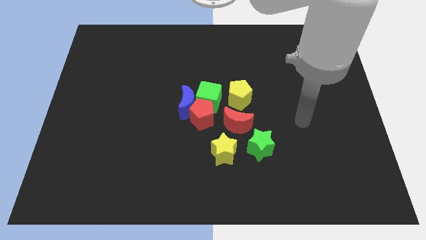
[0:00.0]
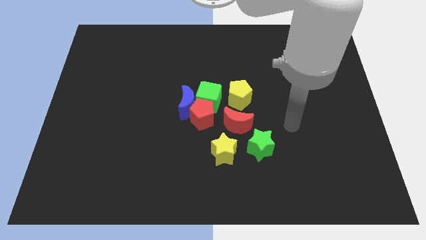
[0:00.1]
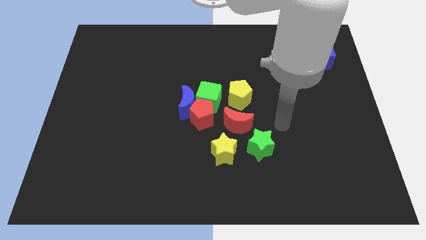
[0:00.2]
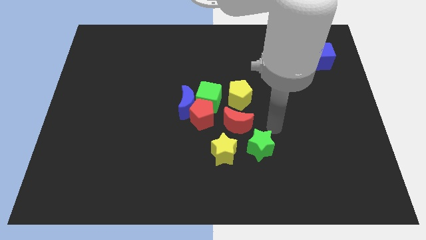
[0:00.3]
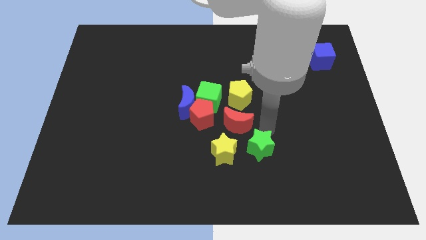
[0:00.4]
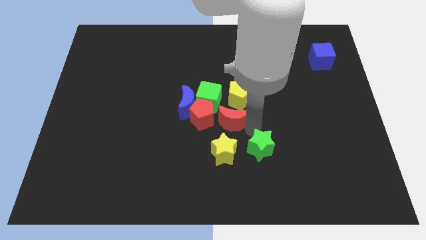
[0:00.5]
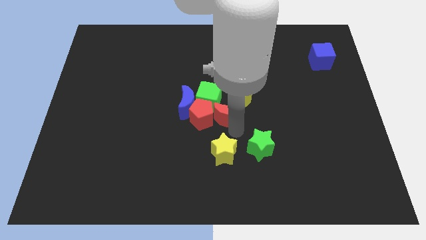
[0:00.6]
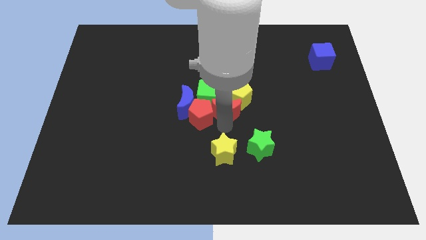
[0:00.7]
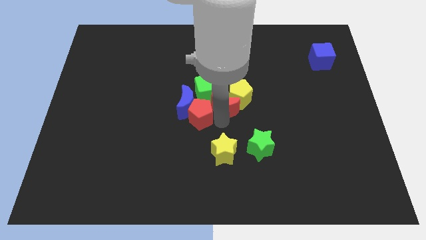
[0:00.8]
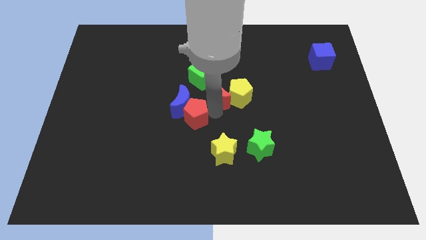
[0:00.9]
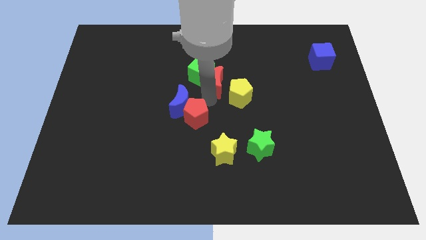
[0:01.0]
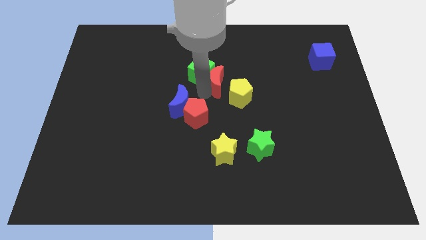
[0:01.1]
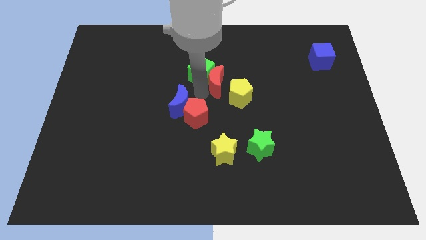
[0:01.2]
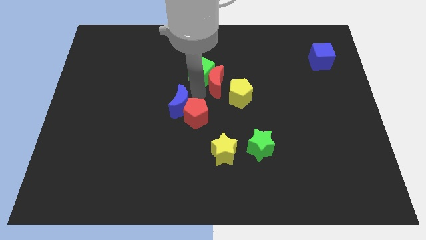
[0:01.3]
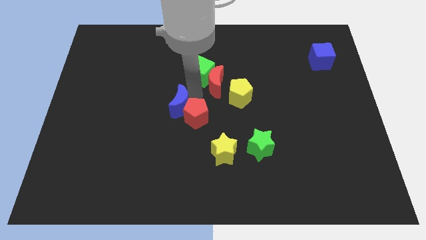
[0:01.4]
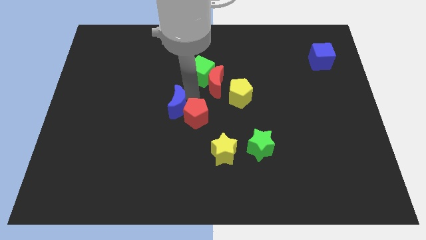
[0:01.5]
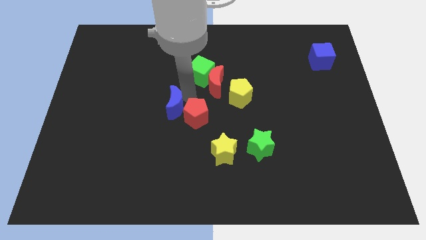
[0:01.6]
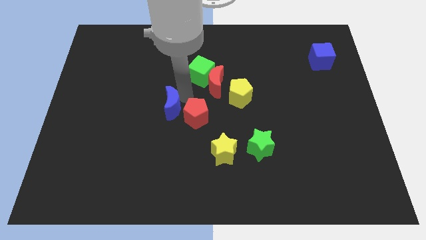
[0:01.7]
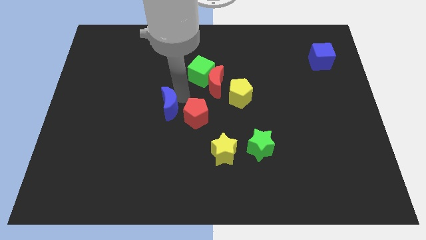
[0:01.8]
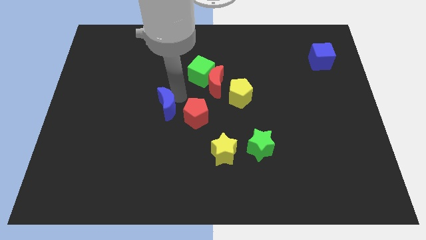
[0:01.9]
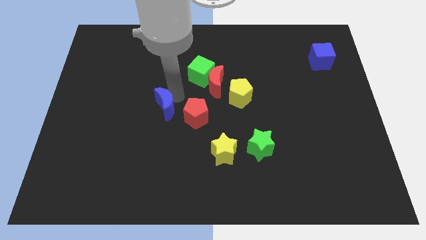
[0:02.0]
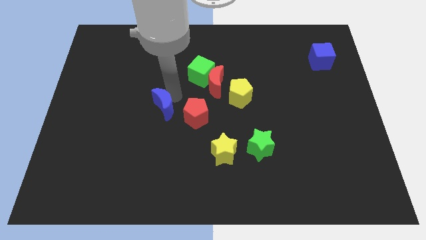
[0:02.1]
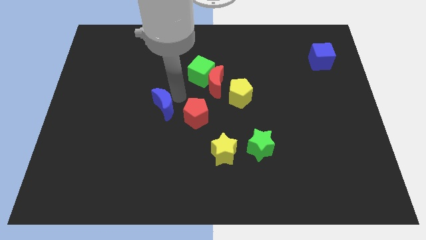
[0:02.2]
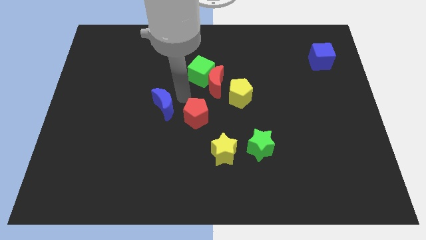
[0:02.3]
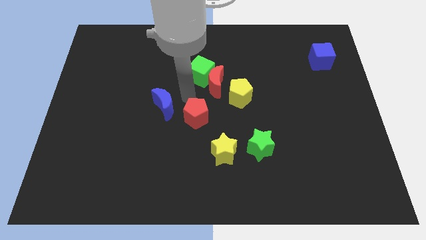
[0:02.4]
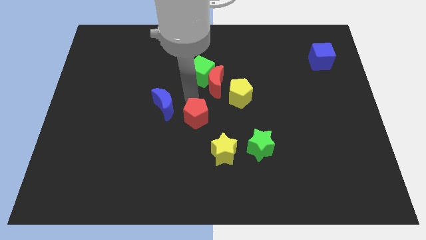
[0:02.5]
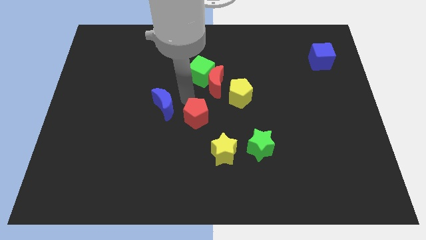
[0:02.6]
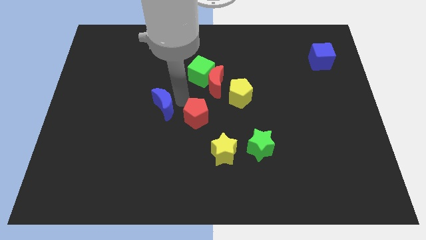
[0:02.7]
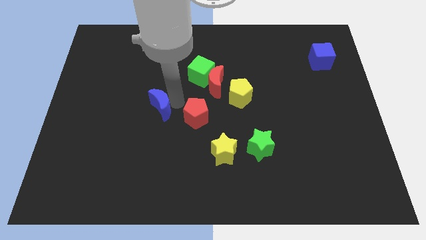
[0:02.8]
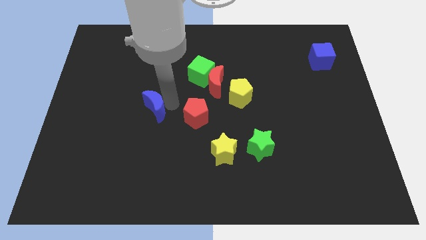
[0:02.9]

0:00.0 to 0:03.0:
separate the blue moon from the red pentagon and green cube

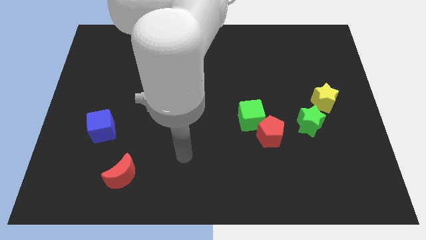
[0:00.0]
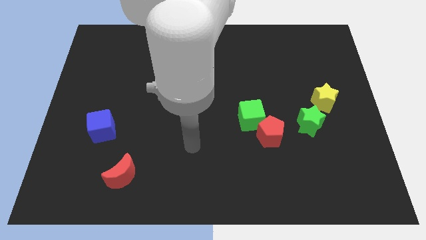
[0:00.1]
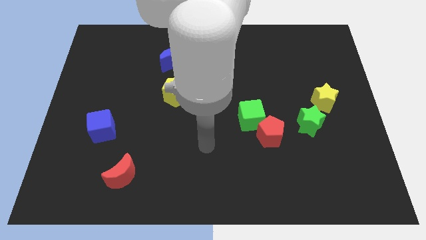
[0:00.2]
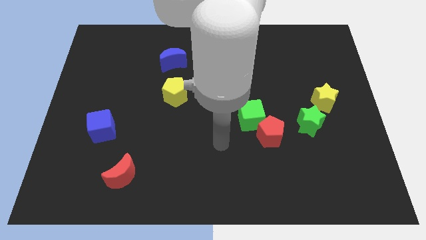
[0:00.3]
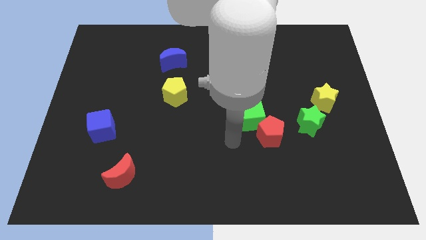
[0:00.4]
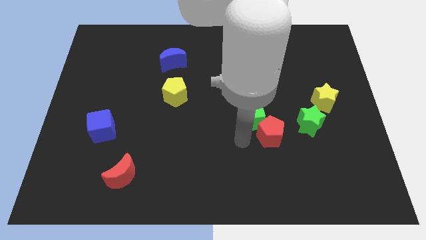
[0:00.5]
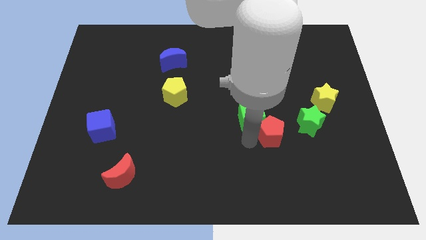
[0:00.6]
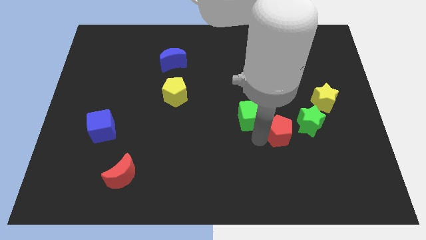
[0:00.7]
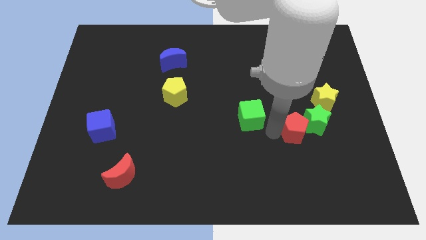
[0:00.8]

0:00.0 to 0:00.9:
separate the green cube from the red pentagon

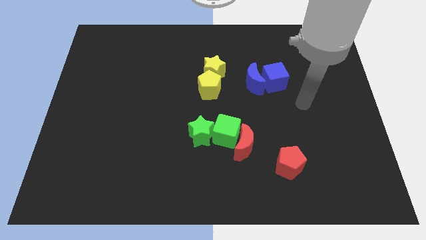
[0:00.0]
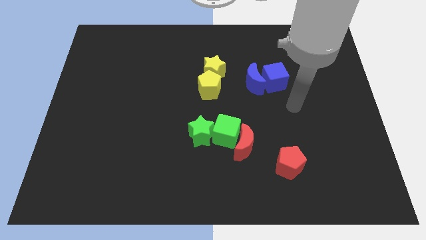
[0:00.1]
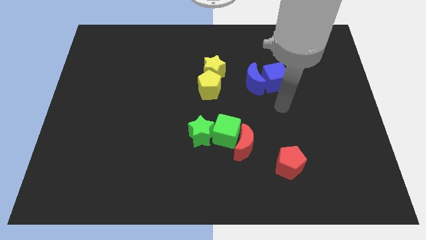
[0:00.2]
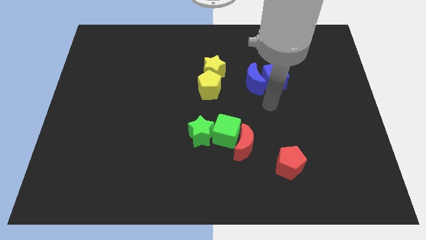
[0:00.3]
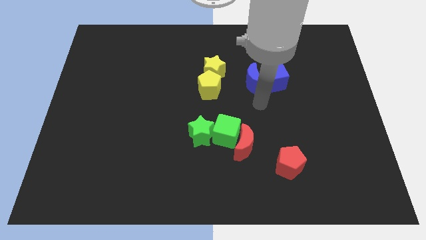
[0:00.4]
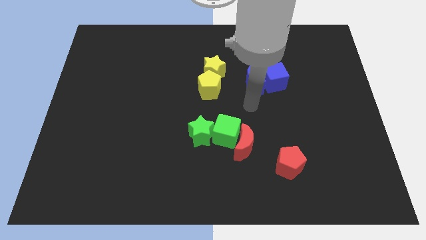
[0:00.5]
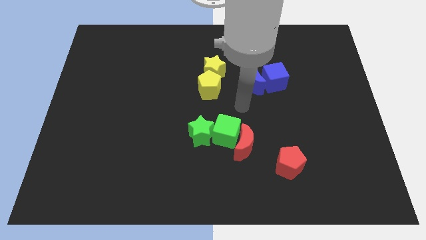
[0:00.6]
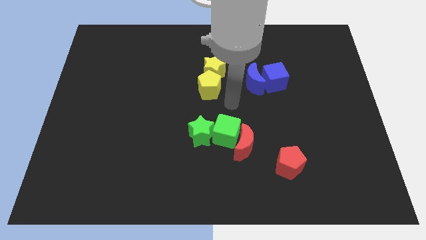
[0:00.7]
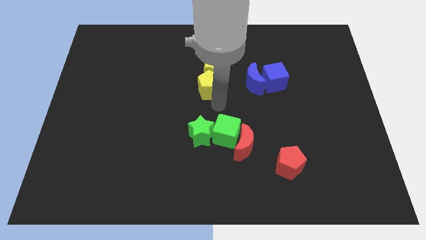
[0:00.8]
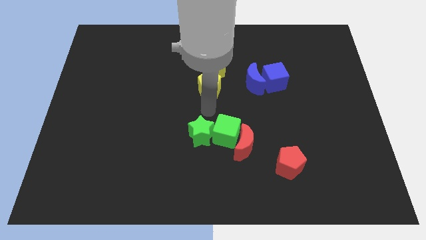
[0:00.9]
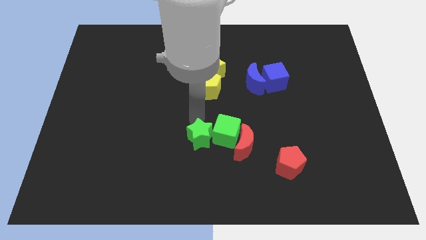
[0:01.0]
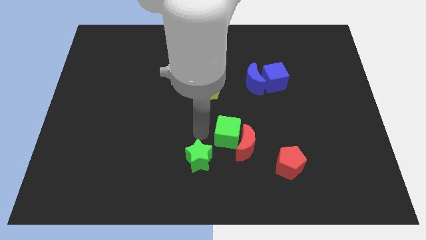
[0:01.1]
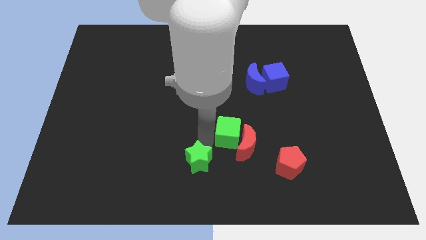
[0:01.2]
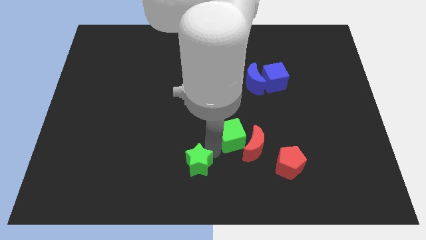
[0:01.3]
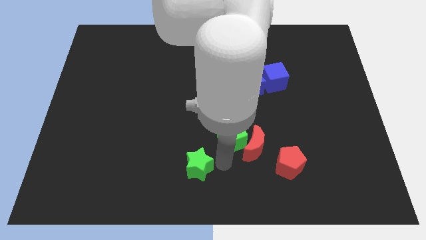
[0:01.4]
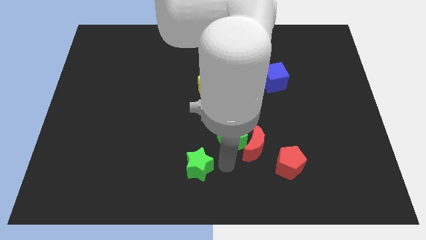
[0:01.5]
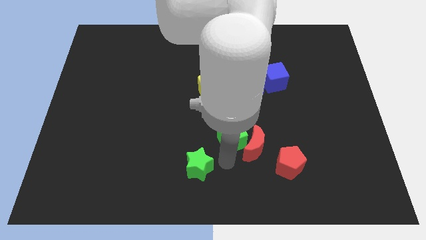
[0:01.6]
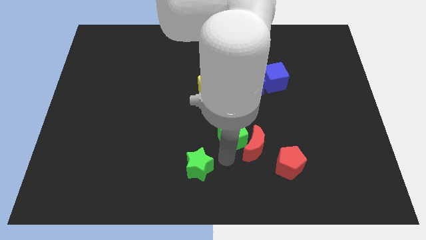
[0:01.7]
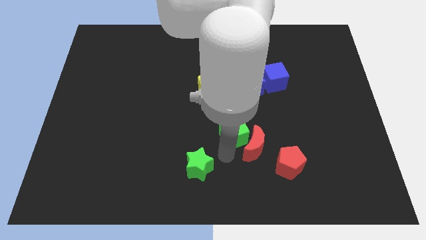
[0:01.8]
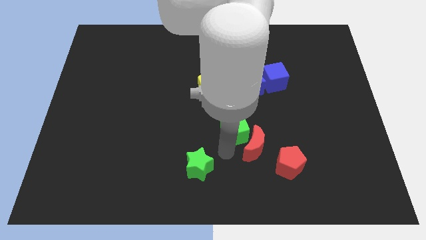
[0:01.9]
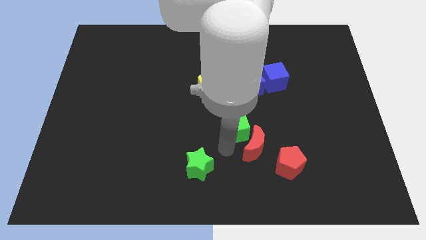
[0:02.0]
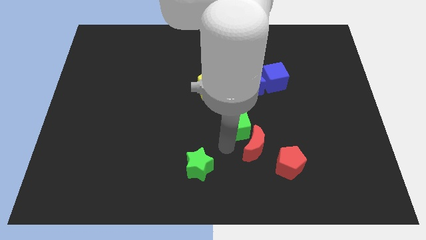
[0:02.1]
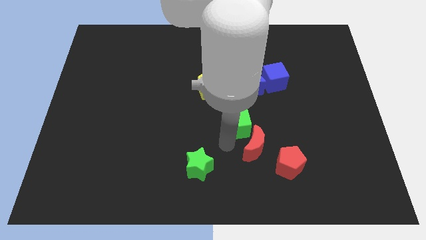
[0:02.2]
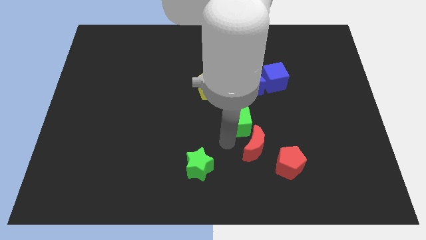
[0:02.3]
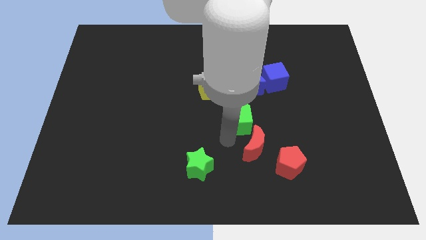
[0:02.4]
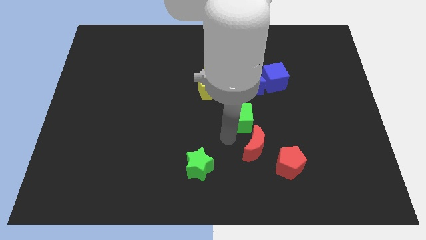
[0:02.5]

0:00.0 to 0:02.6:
pull the green cube apart from the red moon and green star

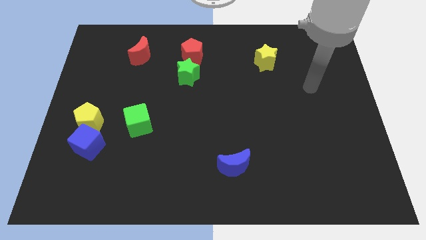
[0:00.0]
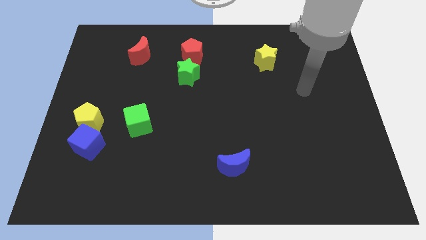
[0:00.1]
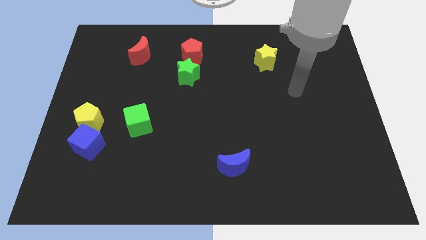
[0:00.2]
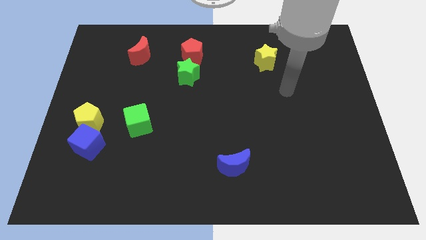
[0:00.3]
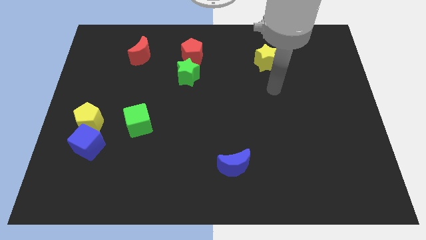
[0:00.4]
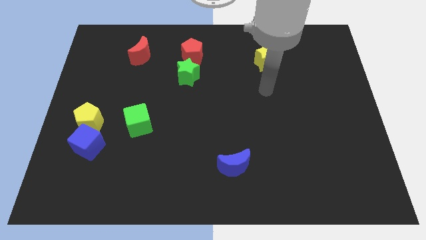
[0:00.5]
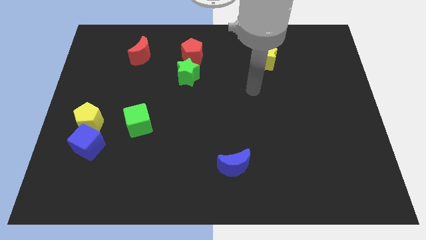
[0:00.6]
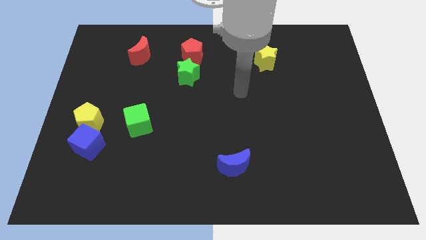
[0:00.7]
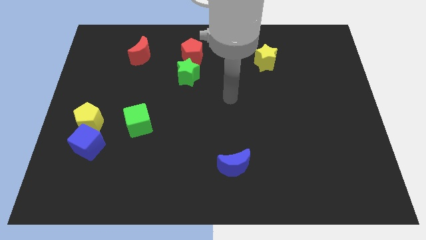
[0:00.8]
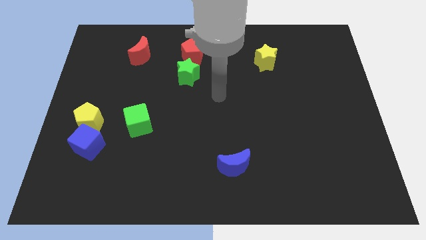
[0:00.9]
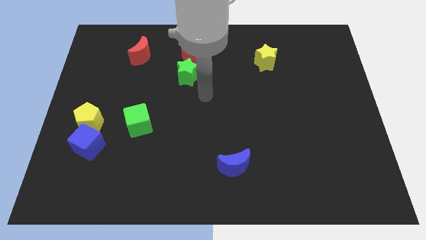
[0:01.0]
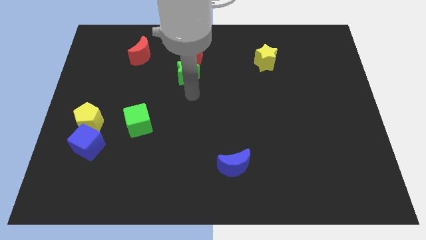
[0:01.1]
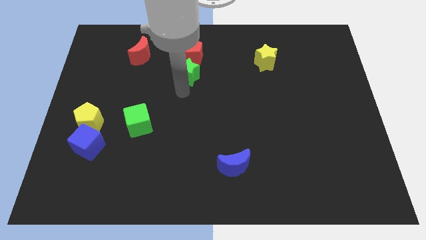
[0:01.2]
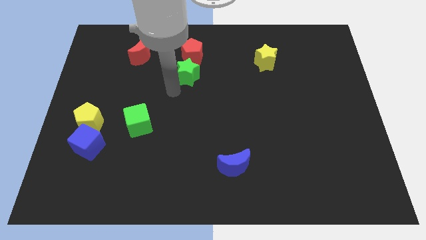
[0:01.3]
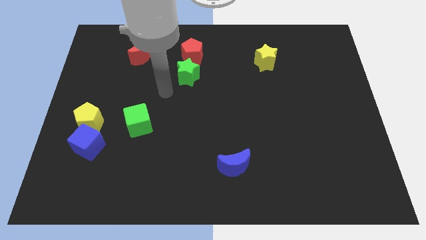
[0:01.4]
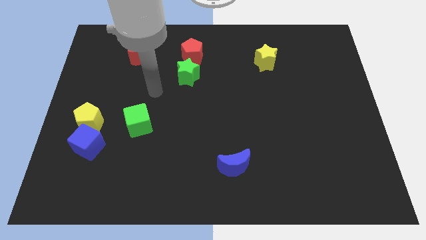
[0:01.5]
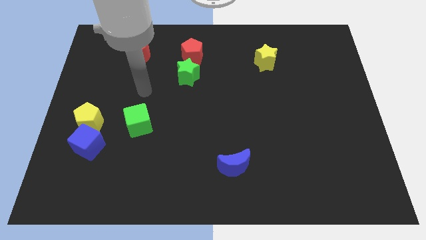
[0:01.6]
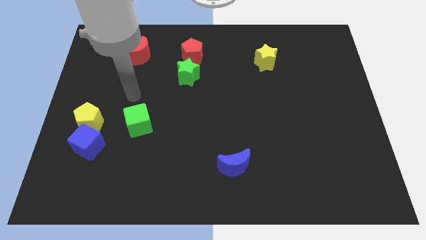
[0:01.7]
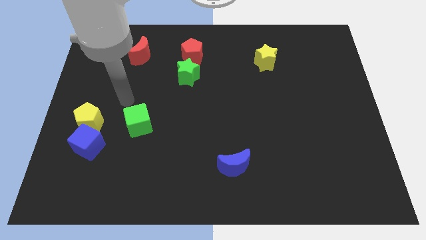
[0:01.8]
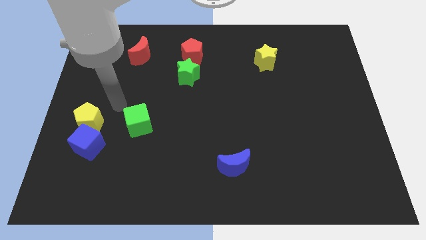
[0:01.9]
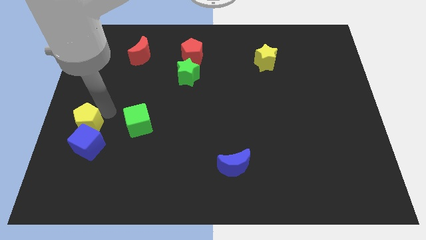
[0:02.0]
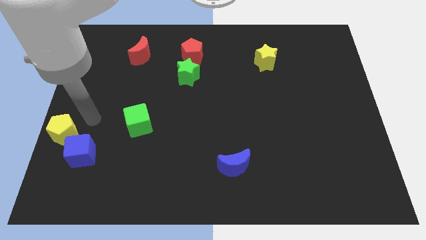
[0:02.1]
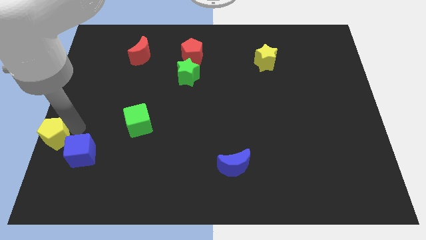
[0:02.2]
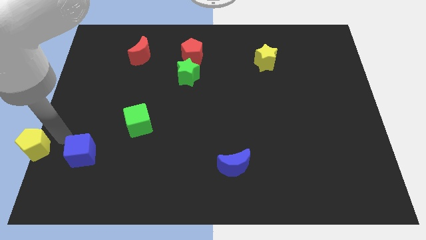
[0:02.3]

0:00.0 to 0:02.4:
pull the blue cube apart from the yellow pentagon

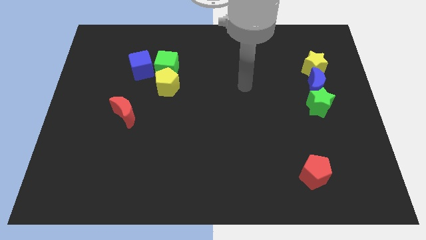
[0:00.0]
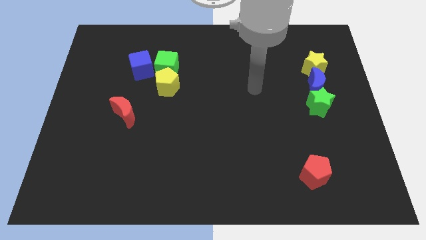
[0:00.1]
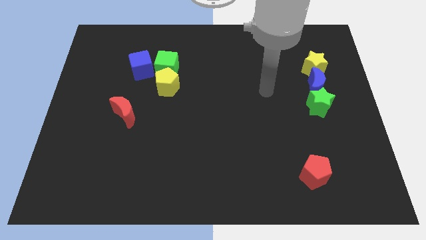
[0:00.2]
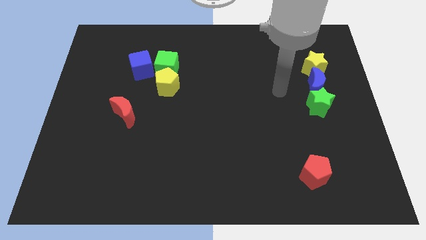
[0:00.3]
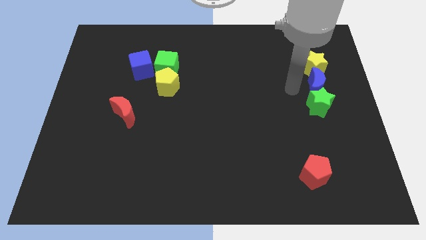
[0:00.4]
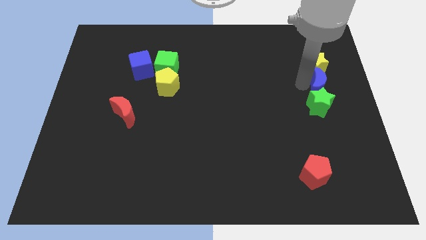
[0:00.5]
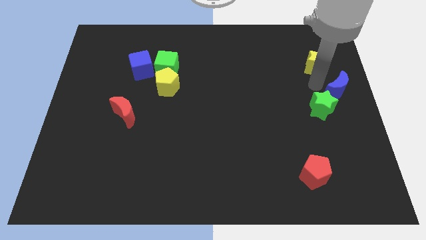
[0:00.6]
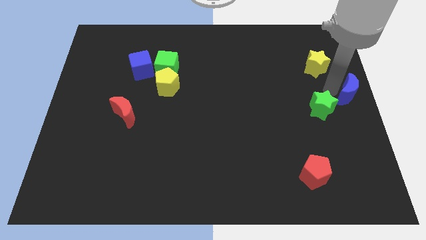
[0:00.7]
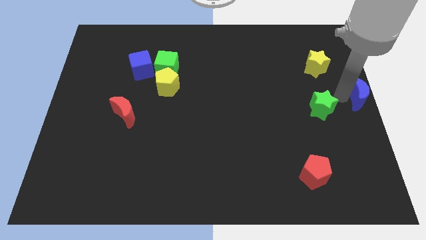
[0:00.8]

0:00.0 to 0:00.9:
move the green star away from the blue moon
